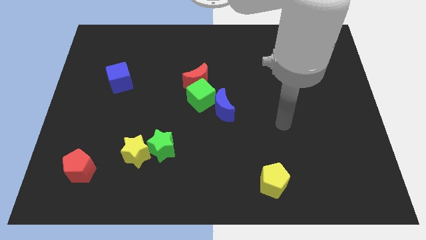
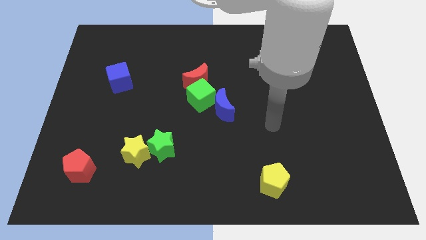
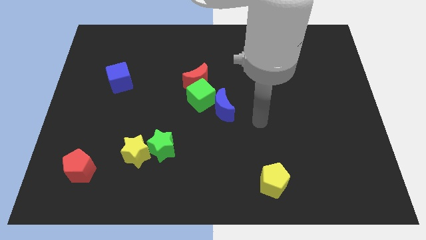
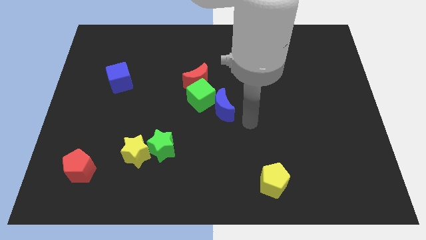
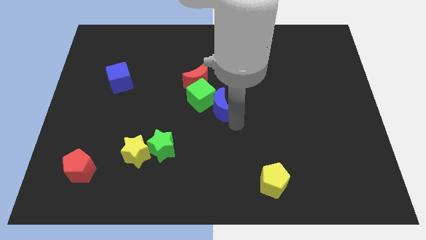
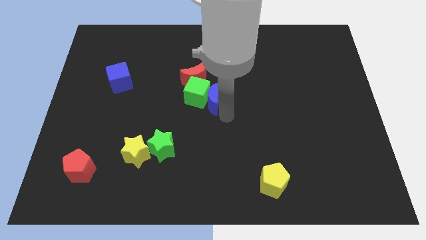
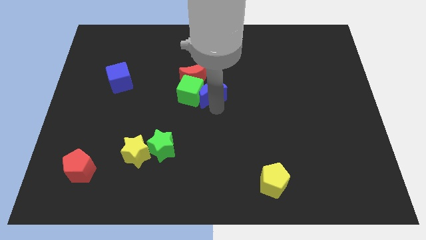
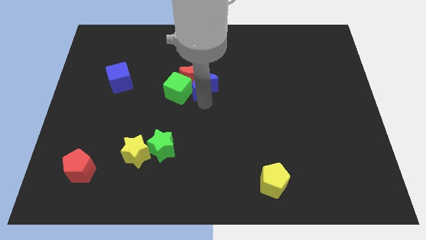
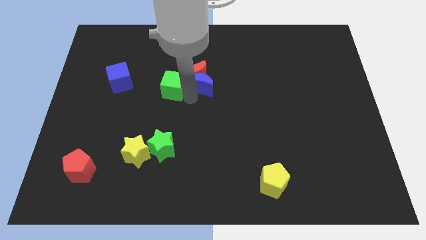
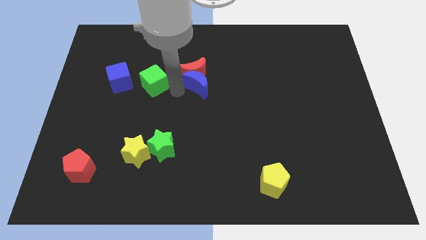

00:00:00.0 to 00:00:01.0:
move the red moon away from the green cube

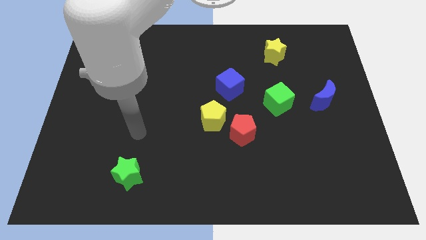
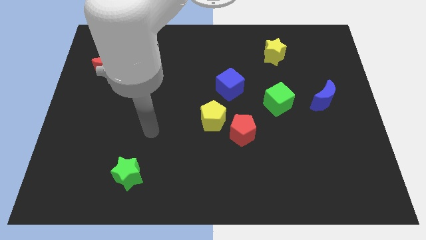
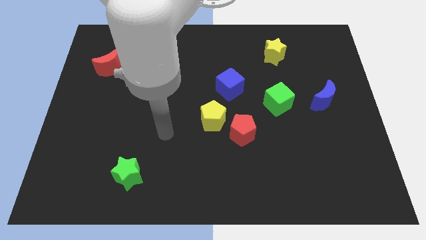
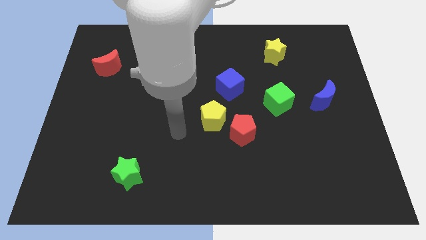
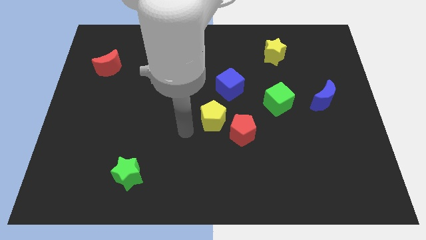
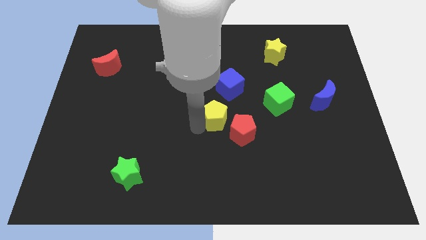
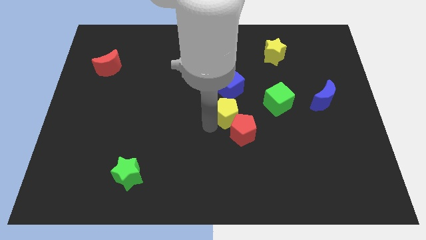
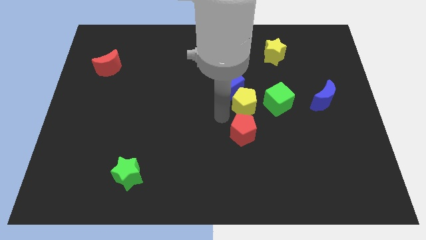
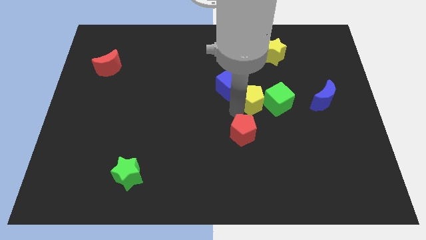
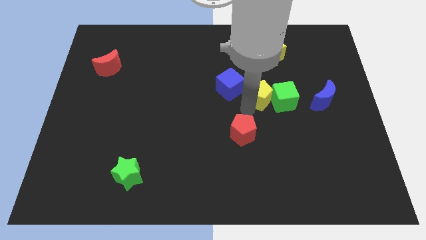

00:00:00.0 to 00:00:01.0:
separate the red pentagon from the yellow pentagon

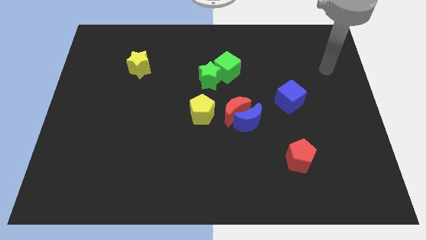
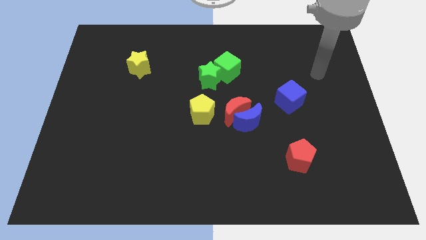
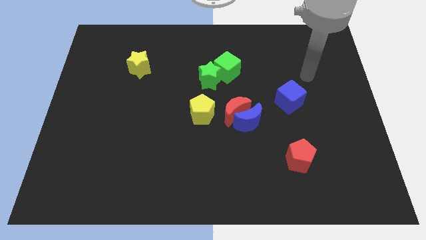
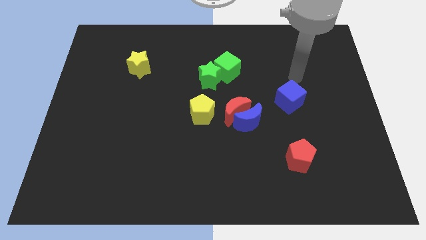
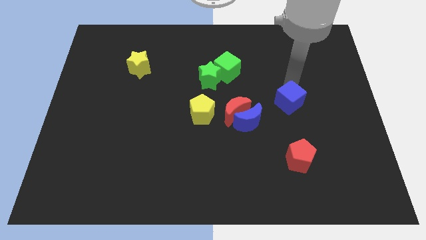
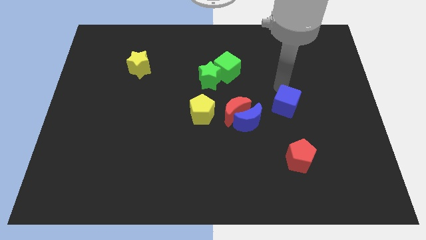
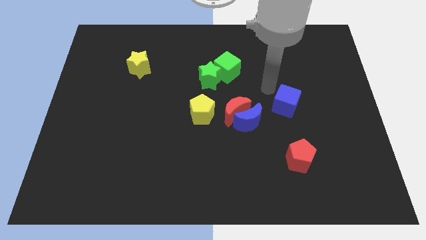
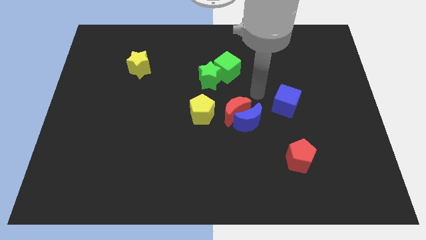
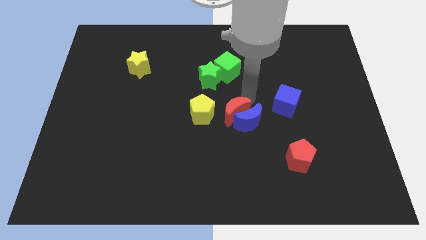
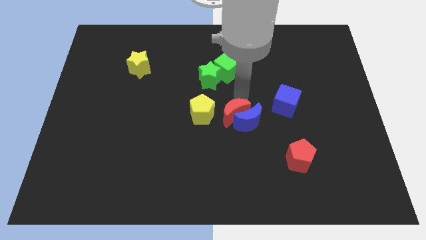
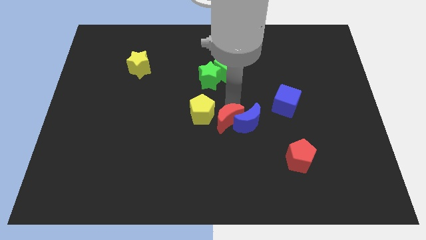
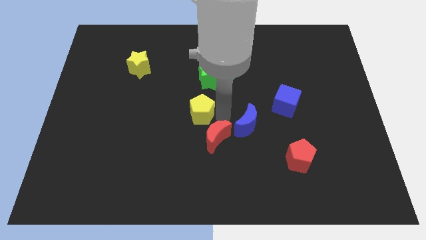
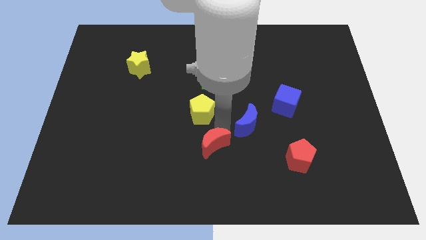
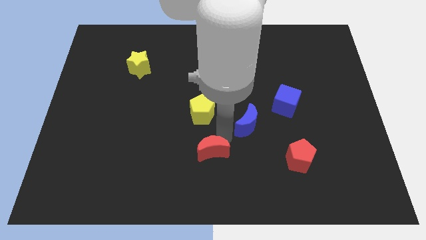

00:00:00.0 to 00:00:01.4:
move the blue moon away from the red moon

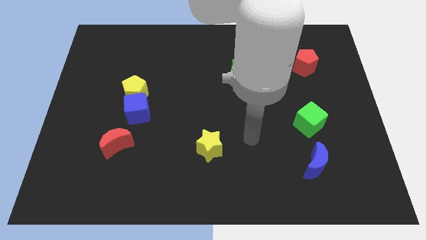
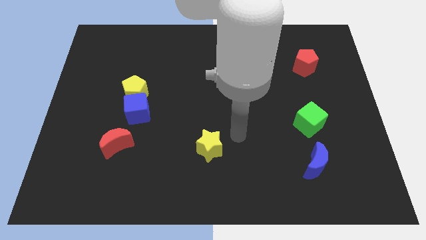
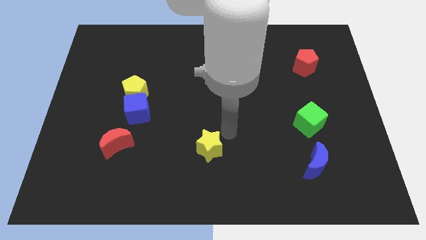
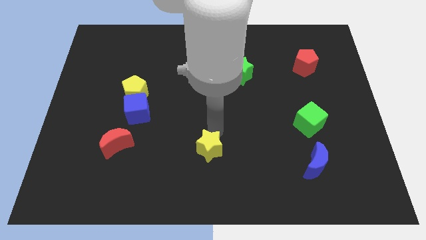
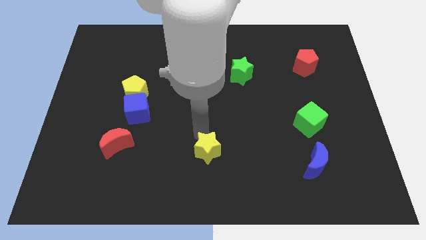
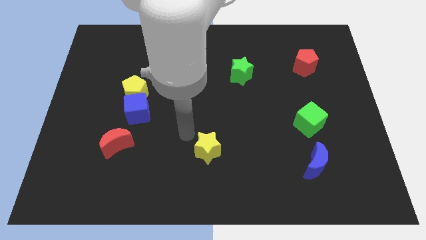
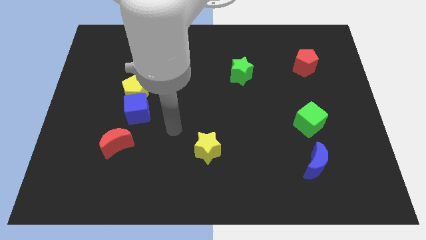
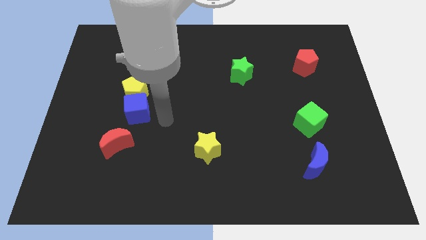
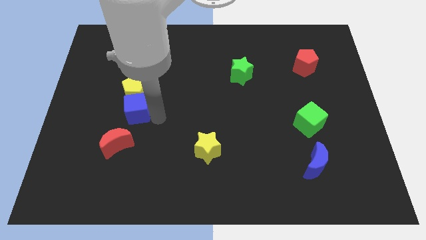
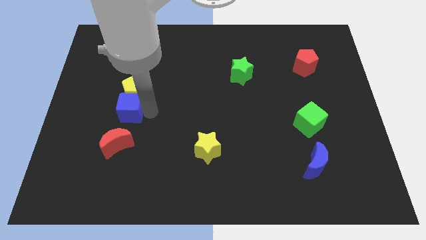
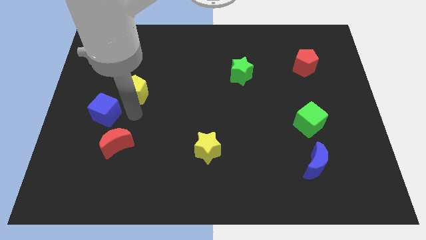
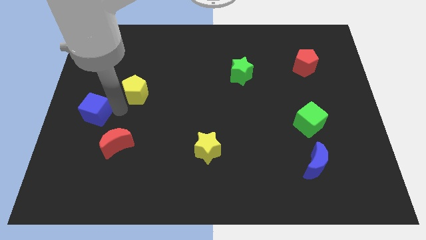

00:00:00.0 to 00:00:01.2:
separate the yellow pentagon from the blue cube

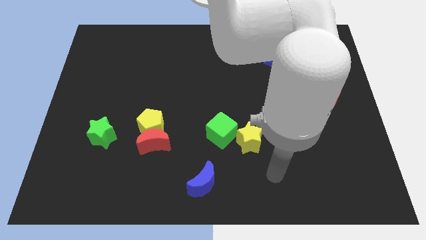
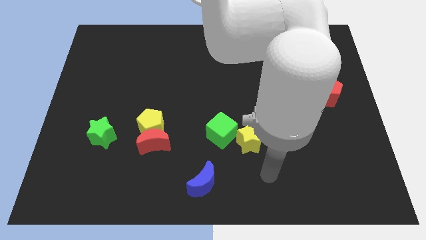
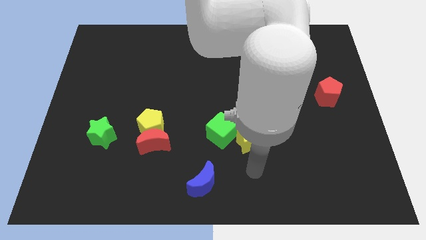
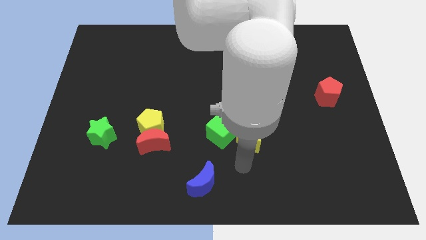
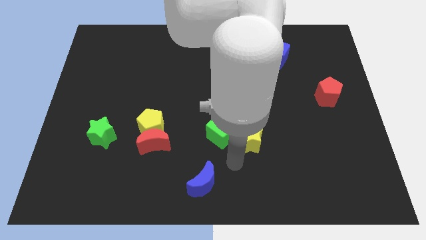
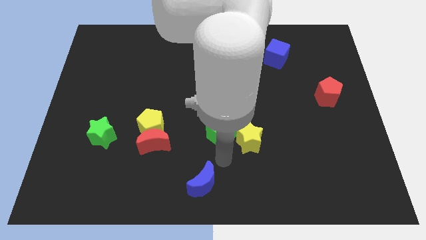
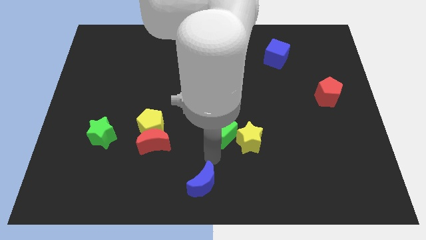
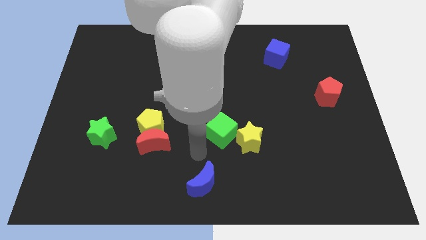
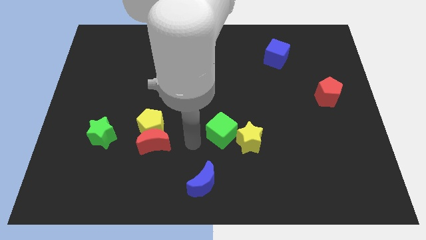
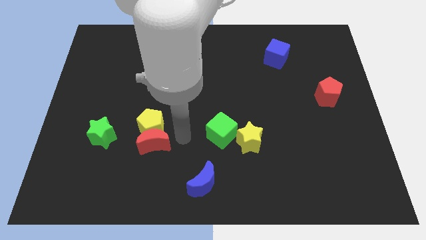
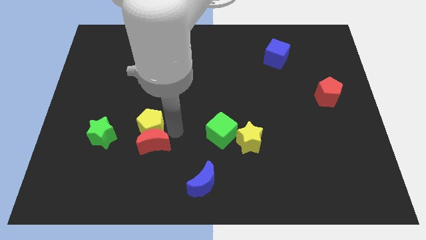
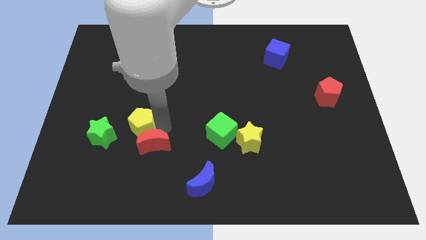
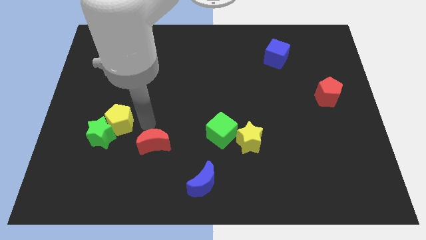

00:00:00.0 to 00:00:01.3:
move the red moon away from the yellow pentagon

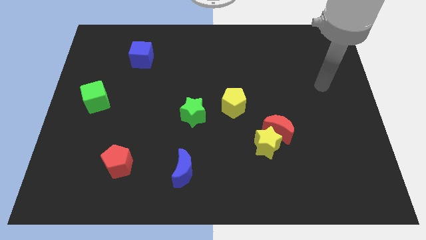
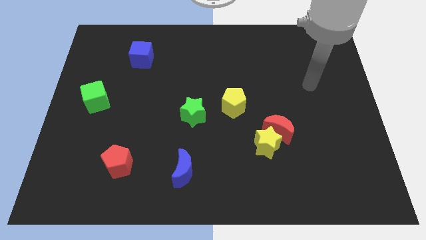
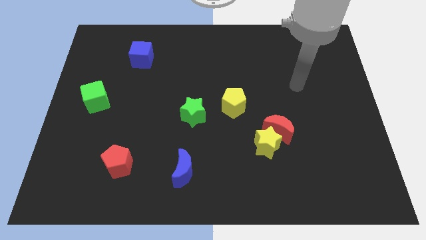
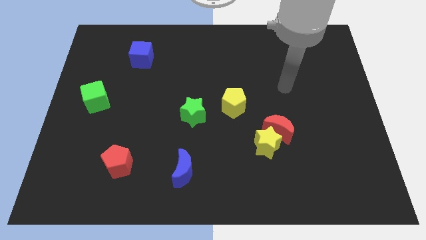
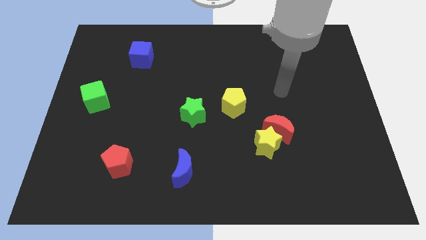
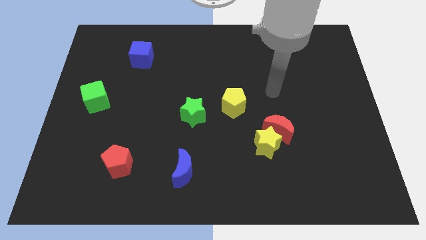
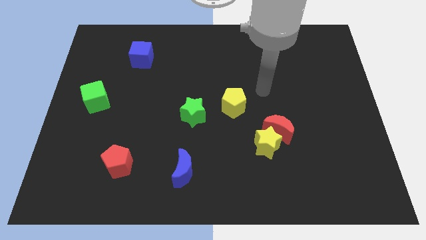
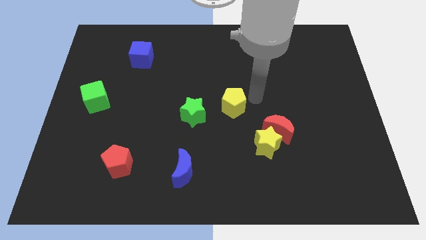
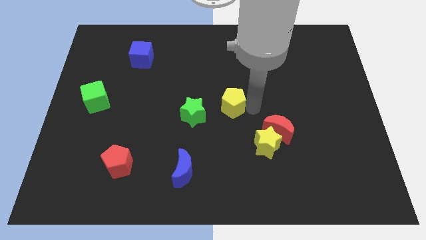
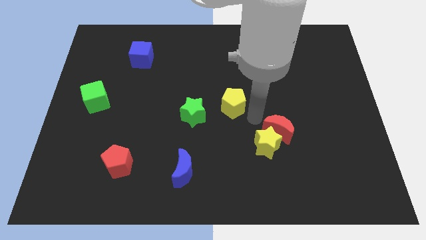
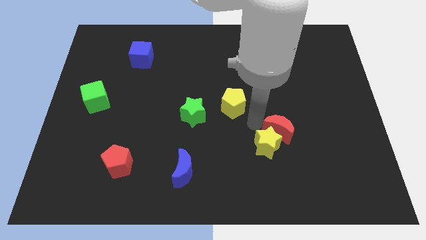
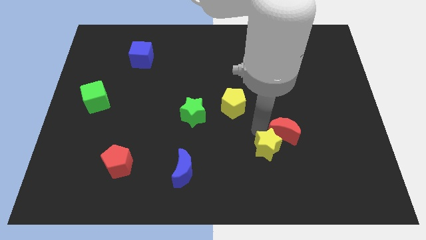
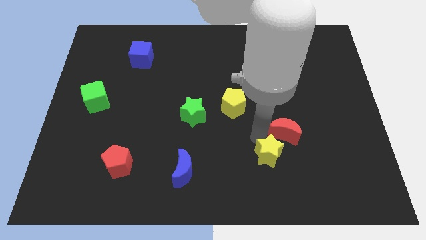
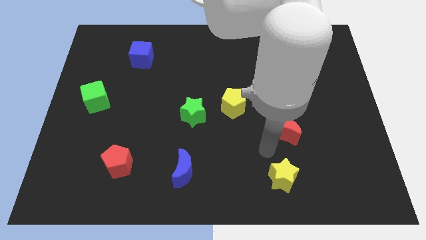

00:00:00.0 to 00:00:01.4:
pull the red moon apart from the yellow star

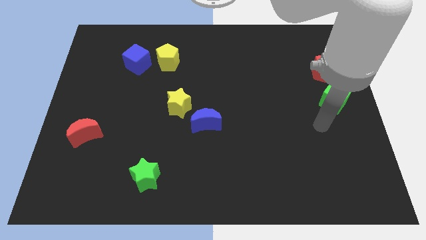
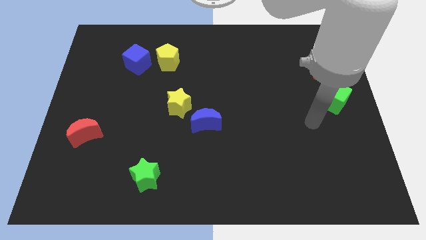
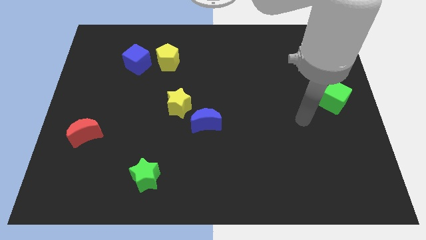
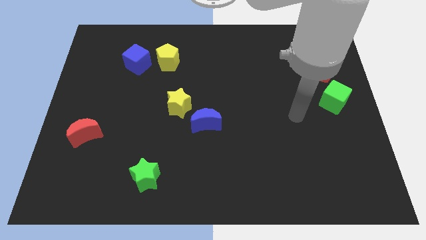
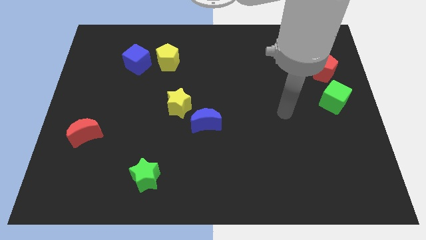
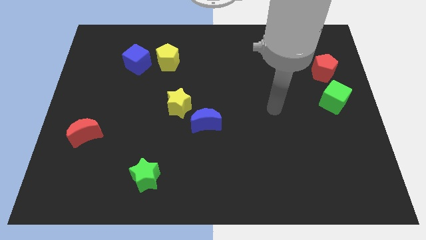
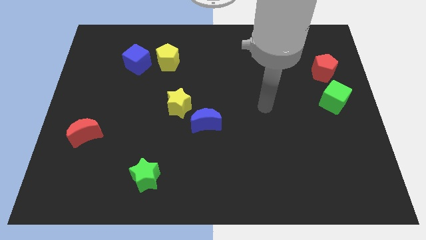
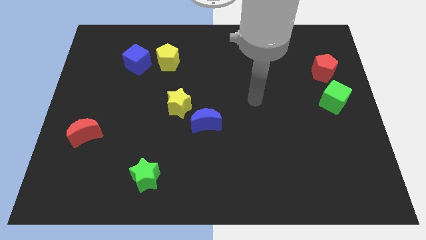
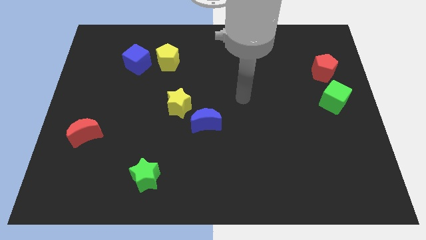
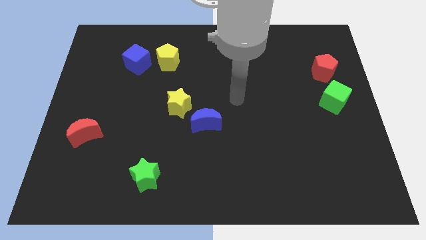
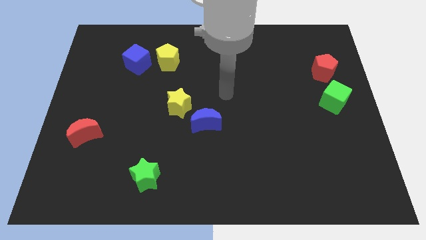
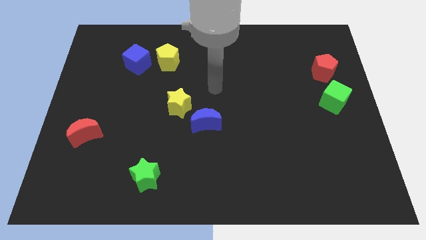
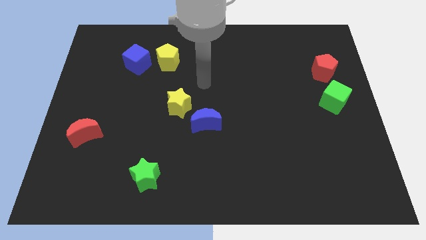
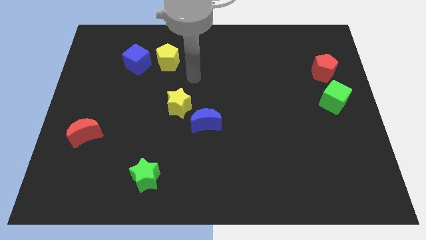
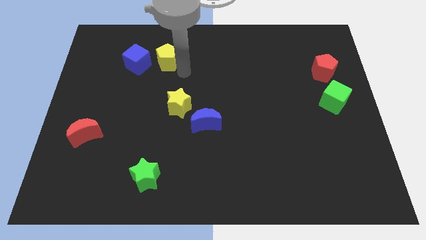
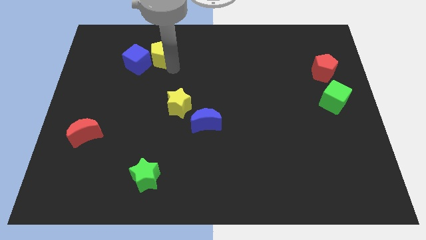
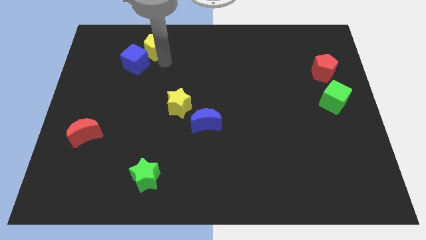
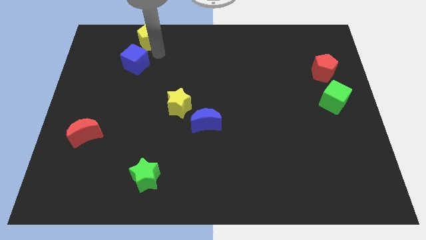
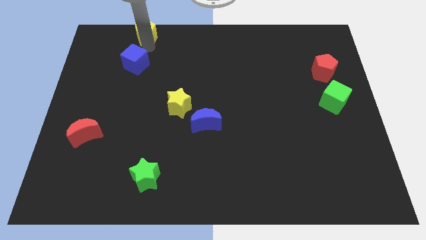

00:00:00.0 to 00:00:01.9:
separate the blue cube from the yellow pentagon
